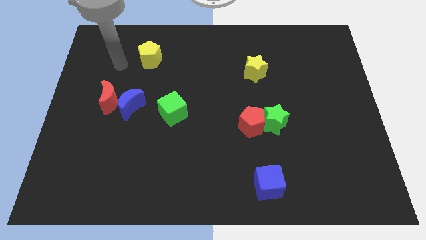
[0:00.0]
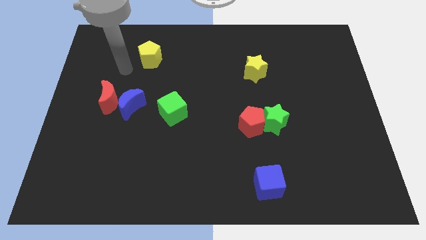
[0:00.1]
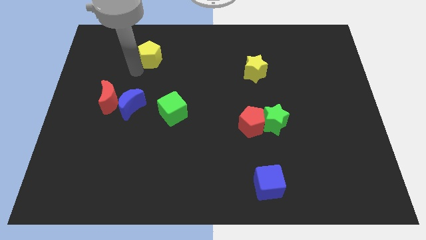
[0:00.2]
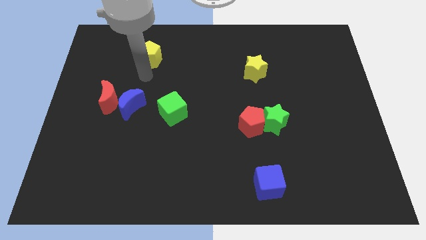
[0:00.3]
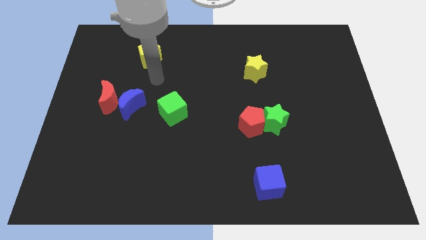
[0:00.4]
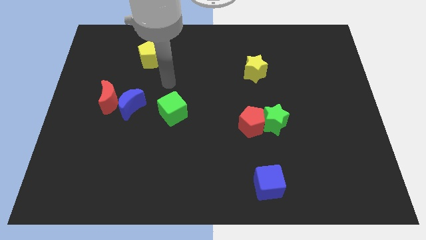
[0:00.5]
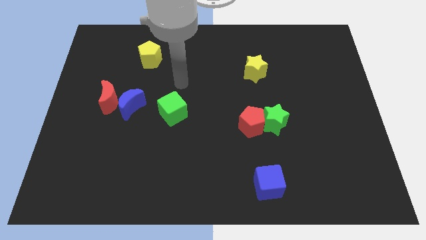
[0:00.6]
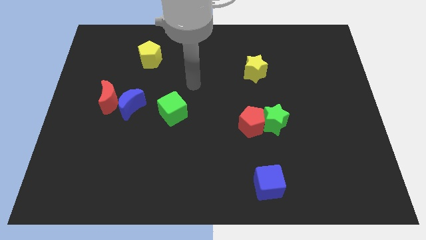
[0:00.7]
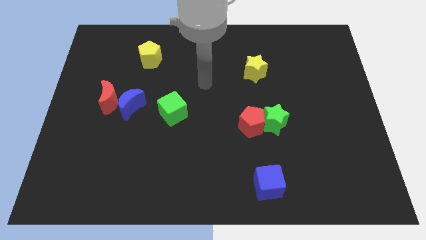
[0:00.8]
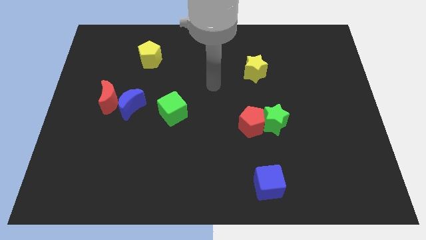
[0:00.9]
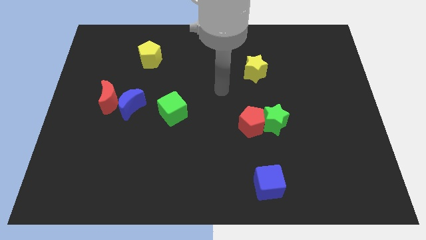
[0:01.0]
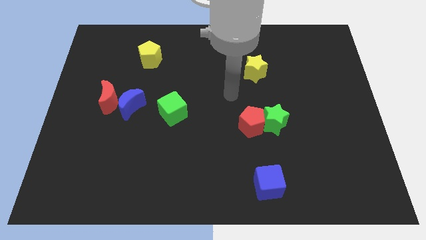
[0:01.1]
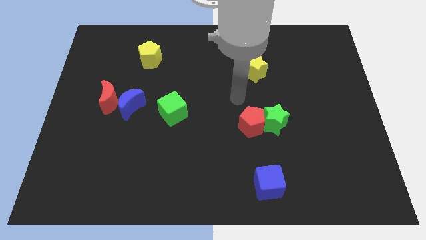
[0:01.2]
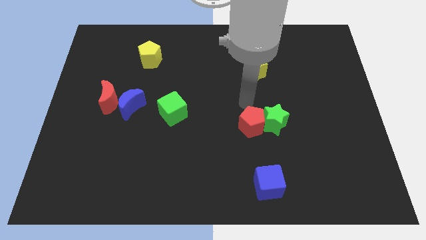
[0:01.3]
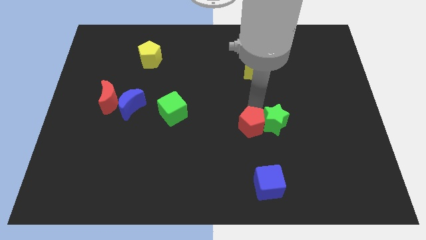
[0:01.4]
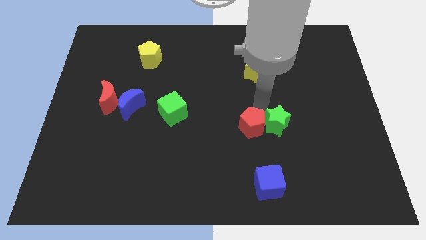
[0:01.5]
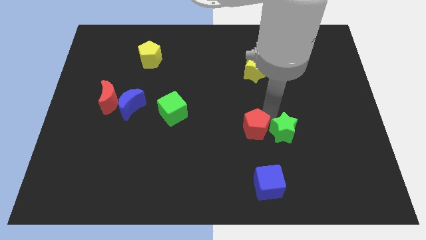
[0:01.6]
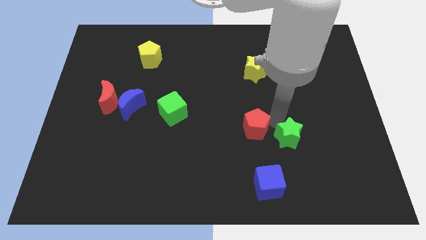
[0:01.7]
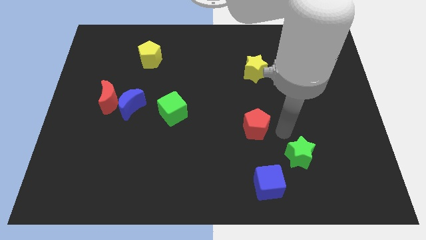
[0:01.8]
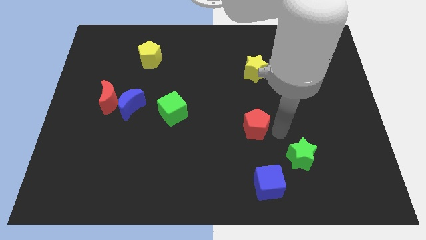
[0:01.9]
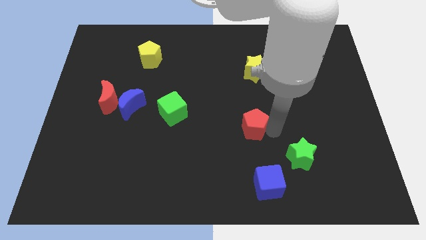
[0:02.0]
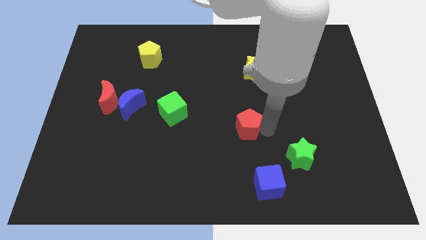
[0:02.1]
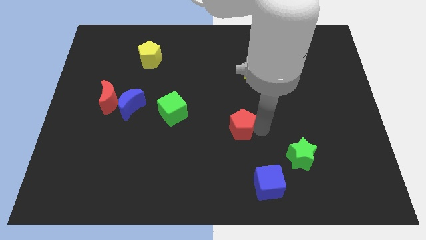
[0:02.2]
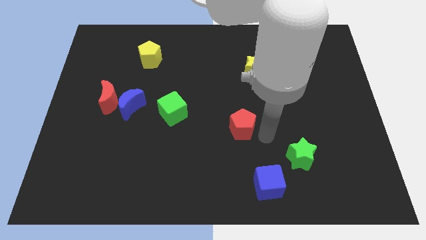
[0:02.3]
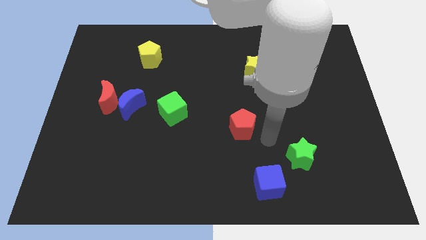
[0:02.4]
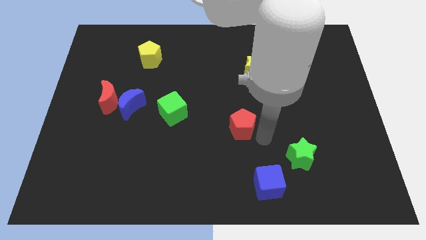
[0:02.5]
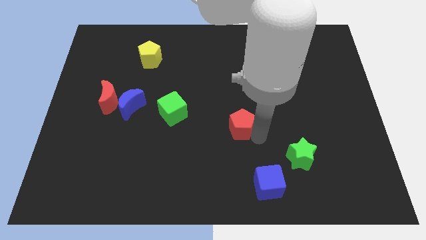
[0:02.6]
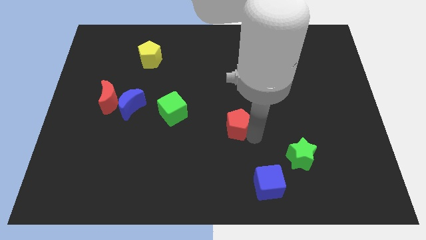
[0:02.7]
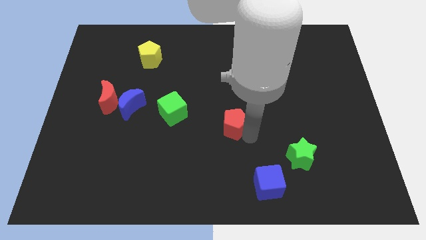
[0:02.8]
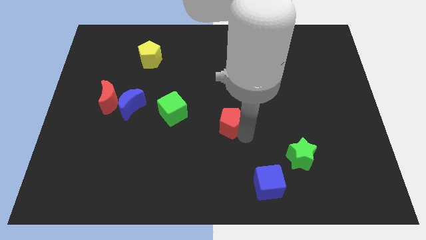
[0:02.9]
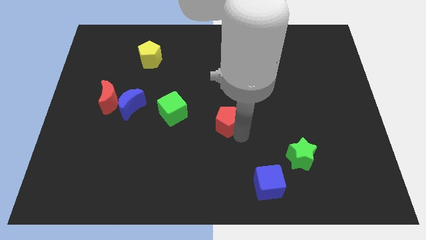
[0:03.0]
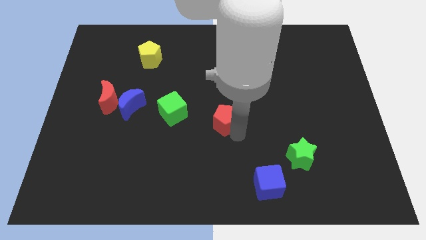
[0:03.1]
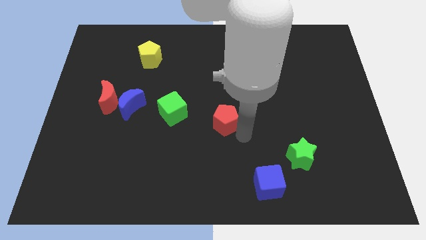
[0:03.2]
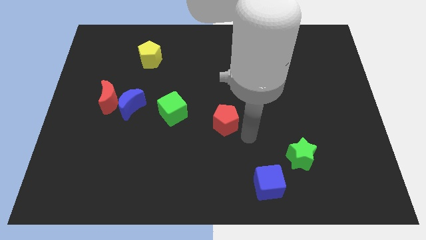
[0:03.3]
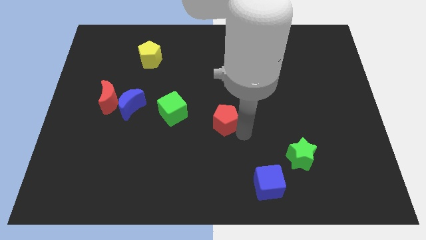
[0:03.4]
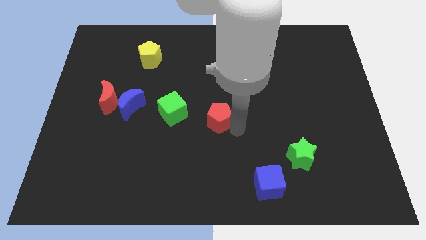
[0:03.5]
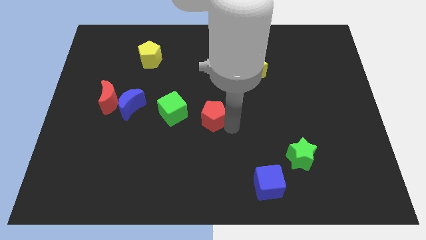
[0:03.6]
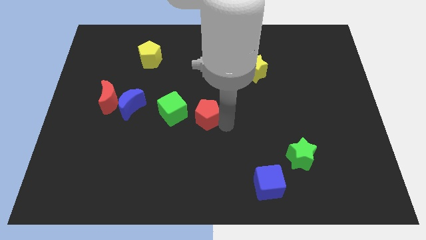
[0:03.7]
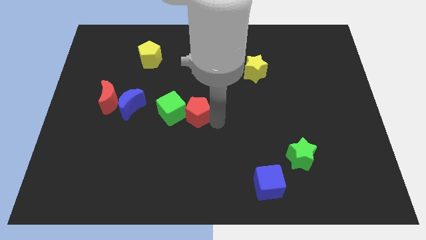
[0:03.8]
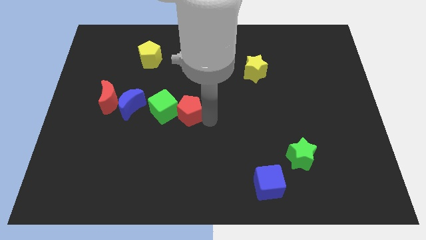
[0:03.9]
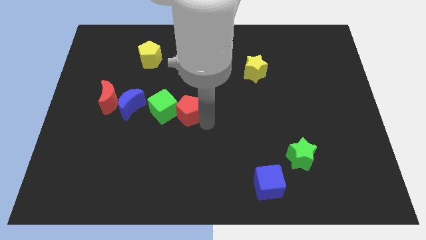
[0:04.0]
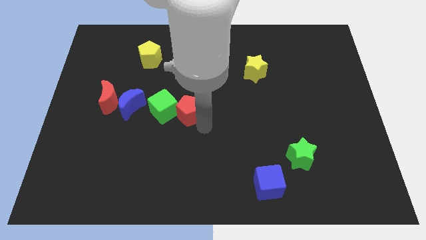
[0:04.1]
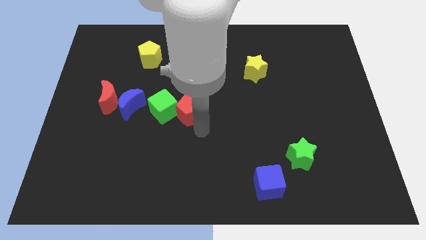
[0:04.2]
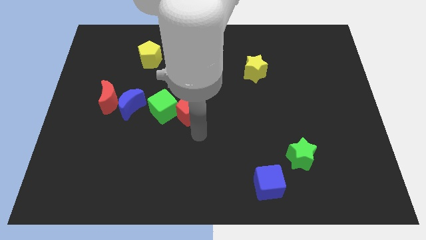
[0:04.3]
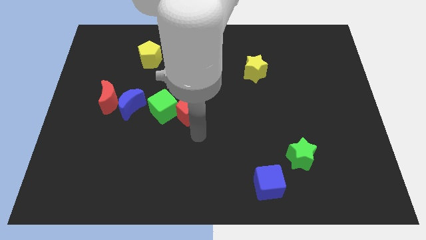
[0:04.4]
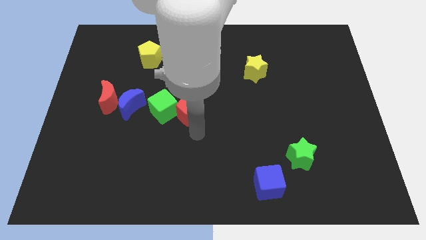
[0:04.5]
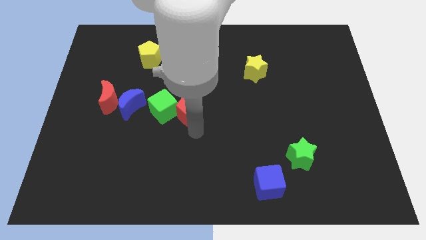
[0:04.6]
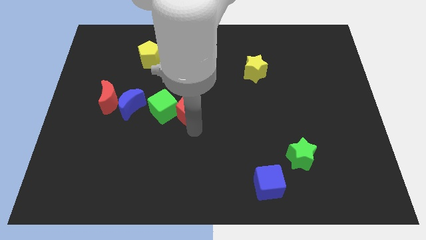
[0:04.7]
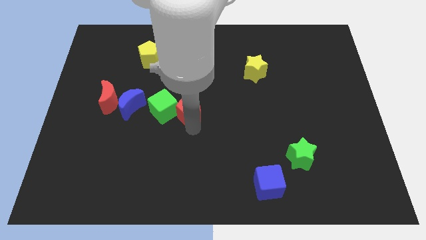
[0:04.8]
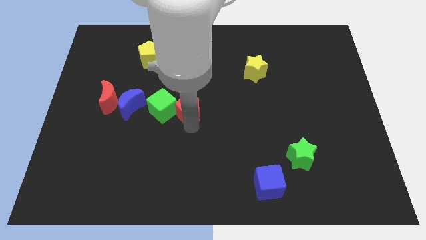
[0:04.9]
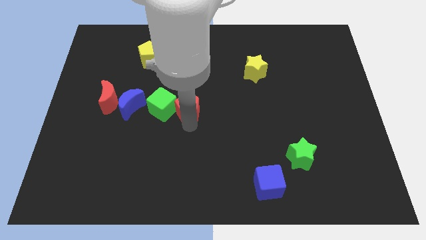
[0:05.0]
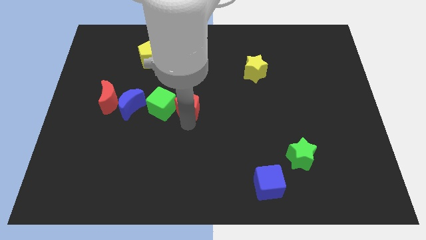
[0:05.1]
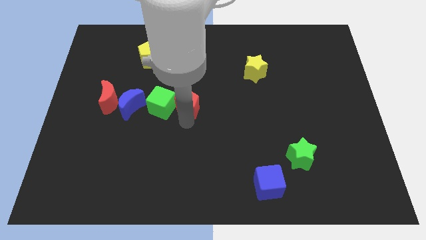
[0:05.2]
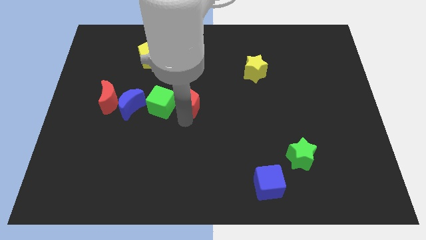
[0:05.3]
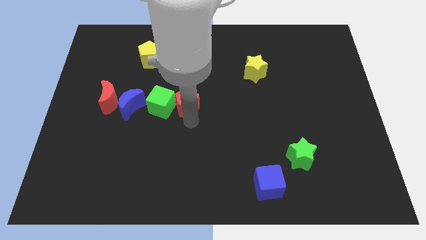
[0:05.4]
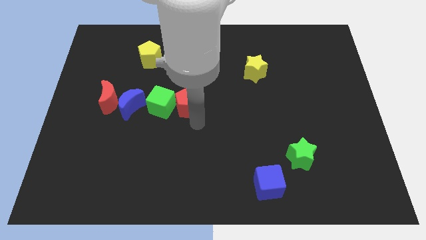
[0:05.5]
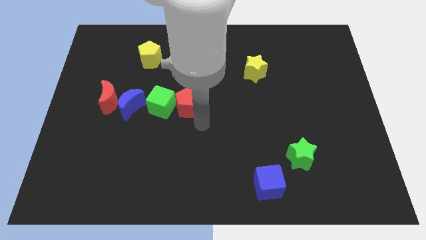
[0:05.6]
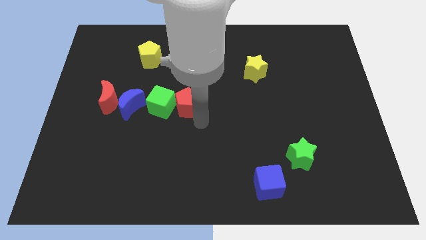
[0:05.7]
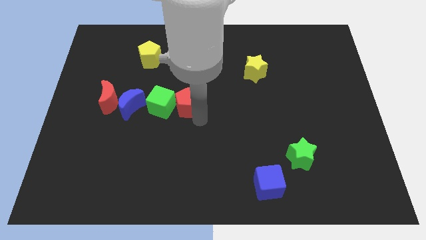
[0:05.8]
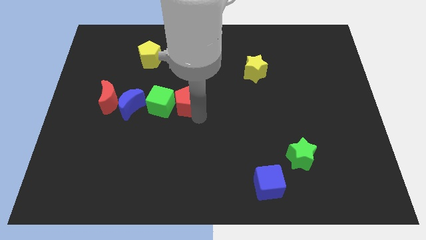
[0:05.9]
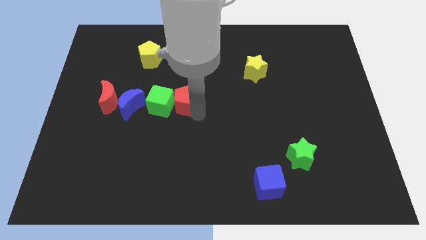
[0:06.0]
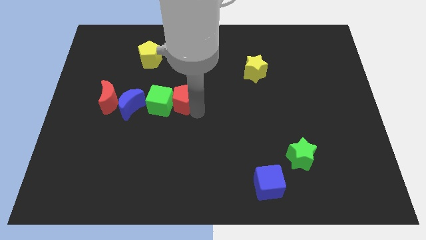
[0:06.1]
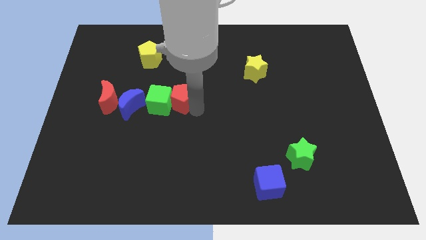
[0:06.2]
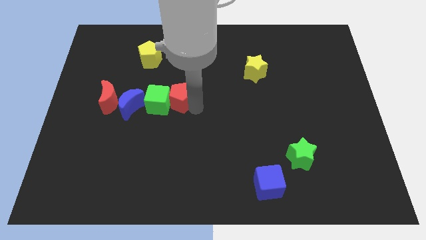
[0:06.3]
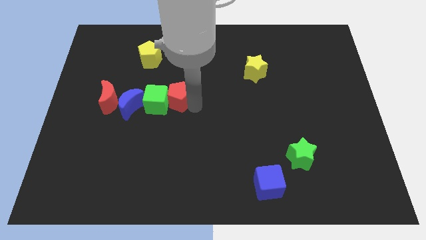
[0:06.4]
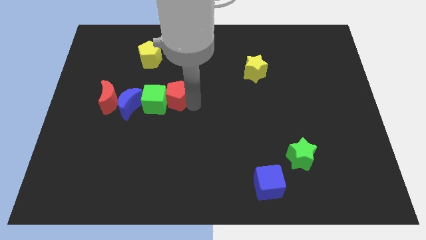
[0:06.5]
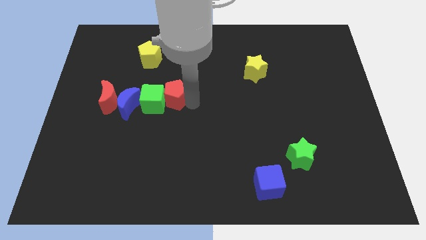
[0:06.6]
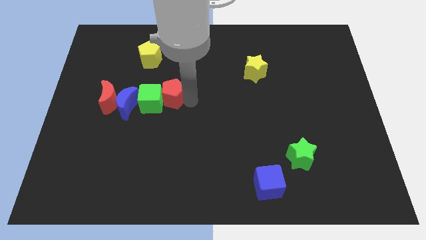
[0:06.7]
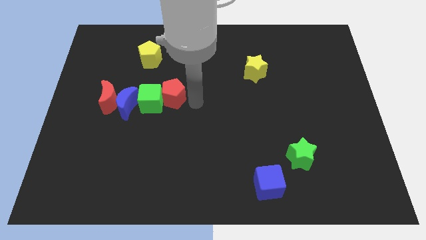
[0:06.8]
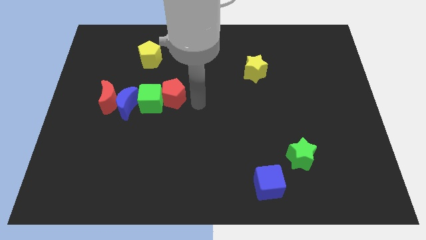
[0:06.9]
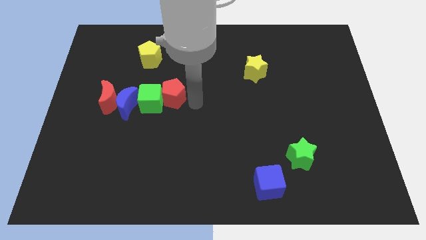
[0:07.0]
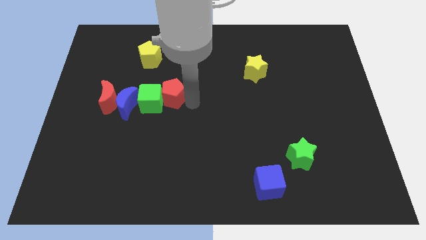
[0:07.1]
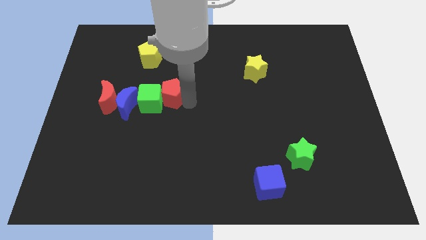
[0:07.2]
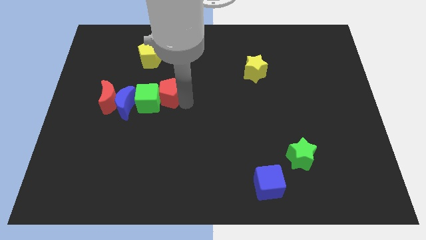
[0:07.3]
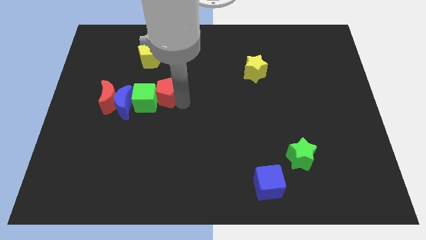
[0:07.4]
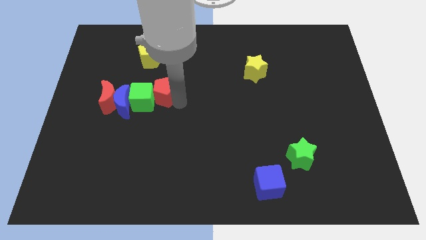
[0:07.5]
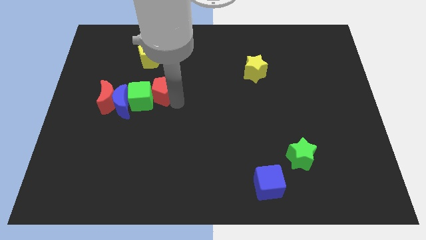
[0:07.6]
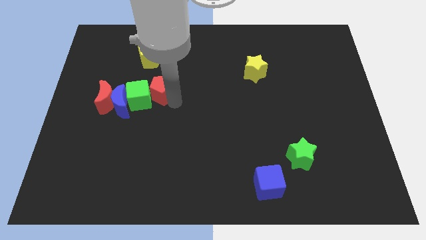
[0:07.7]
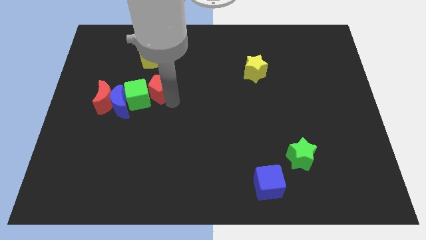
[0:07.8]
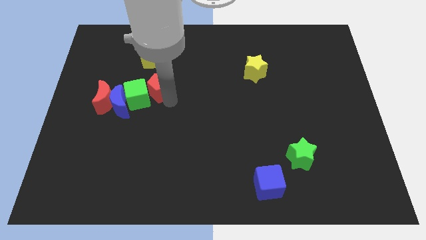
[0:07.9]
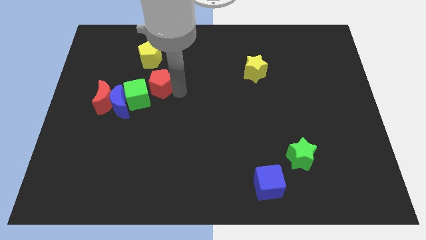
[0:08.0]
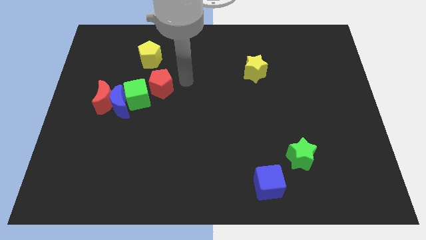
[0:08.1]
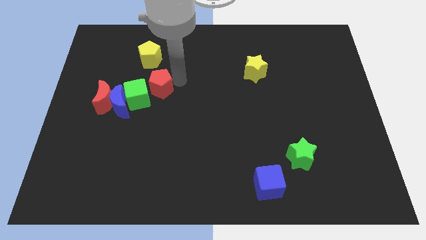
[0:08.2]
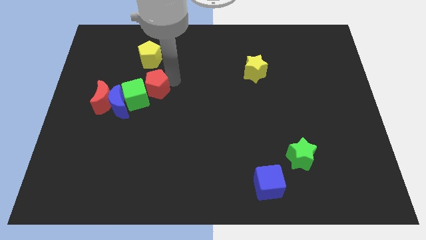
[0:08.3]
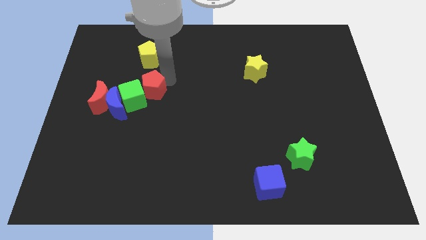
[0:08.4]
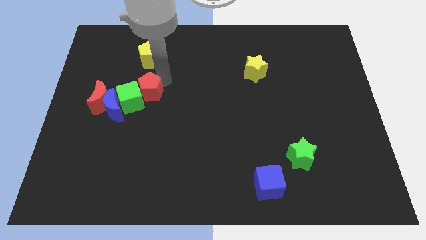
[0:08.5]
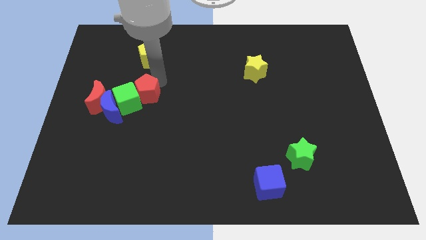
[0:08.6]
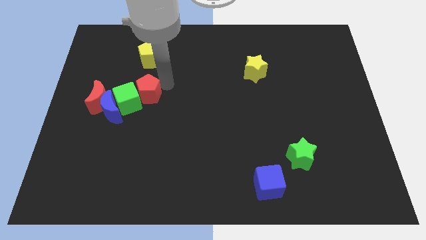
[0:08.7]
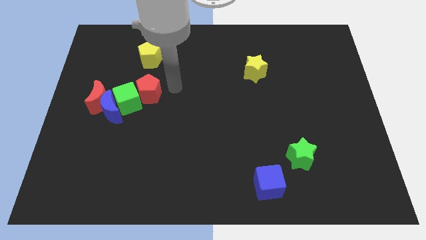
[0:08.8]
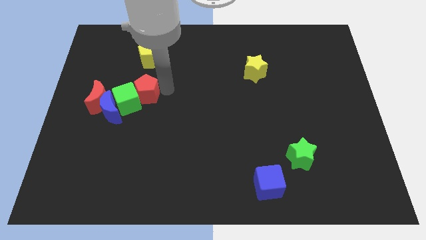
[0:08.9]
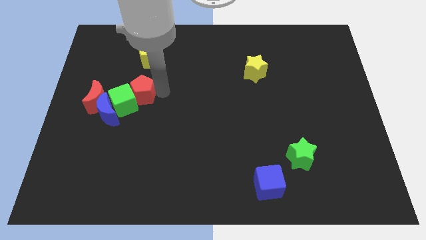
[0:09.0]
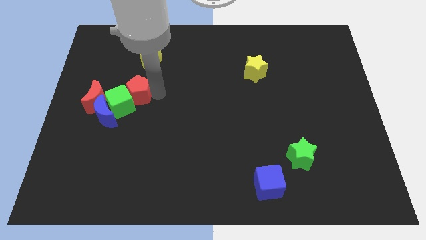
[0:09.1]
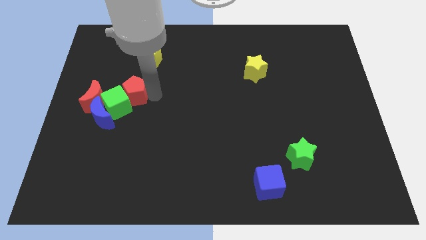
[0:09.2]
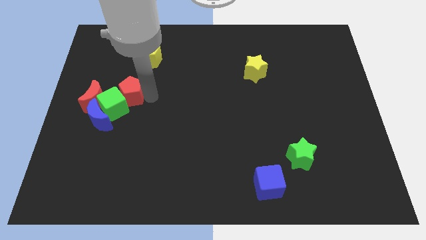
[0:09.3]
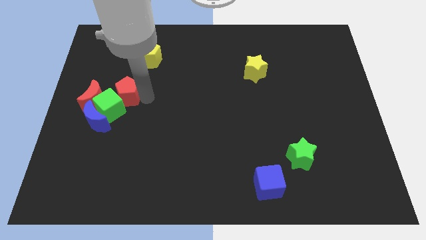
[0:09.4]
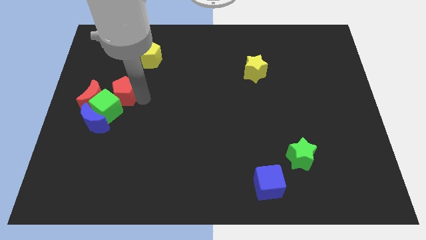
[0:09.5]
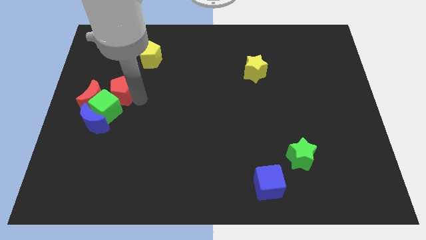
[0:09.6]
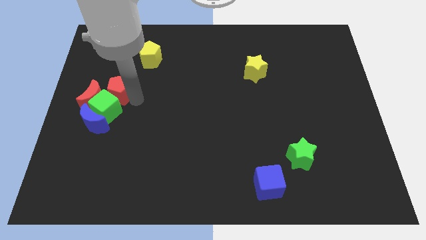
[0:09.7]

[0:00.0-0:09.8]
put the red pentagon to the red moon
